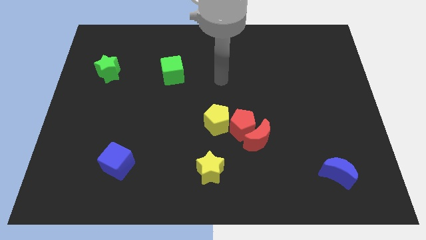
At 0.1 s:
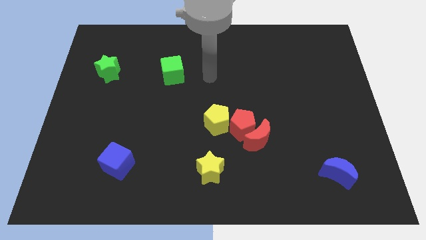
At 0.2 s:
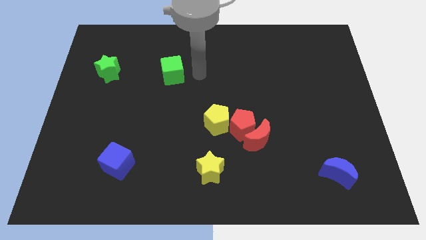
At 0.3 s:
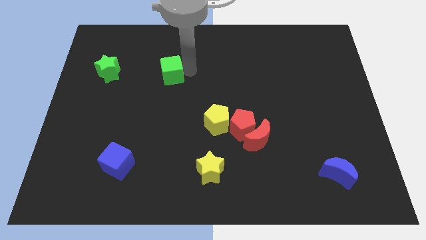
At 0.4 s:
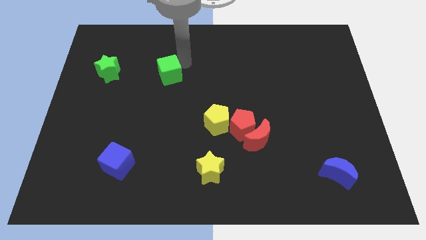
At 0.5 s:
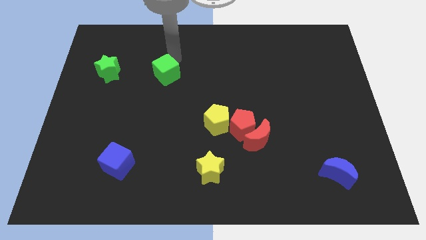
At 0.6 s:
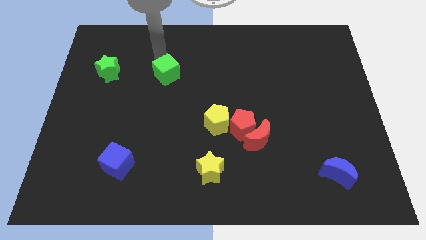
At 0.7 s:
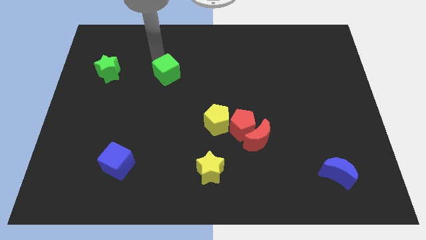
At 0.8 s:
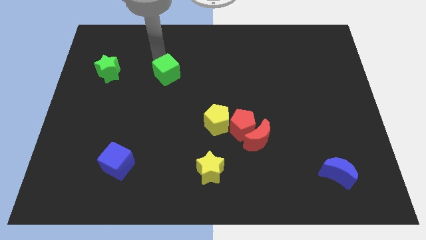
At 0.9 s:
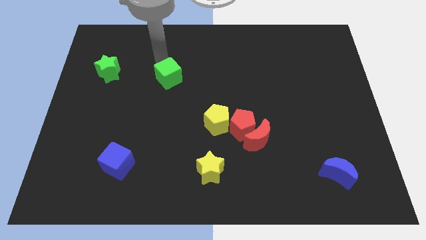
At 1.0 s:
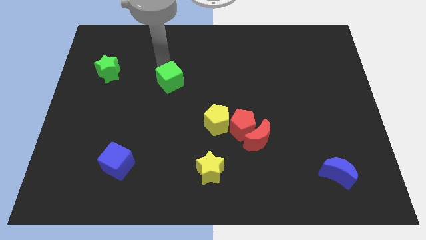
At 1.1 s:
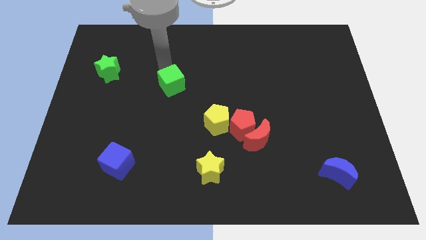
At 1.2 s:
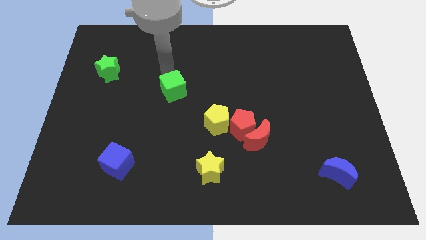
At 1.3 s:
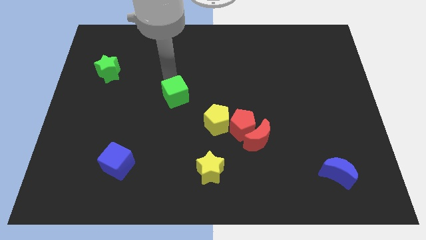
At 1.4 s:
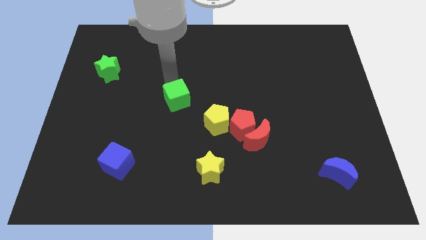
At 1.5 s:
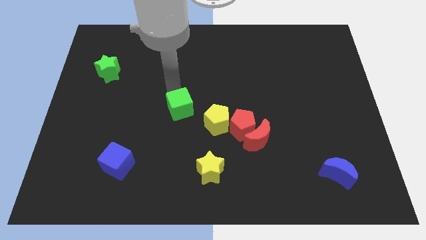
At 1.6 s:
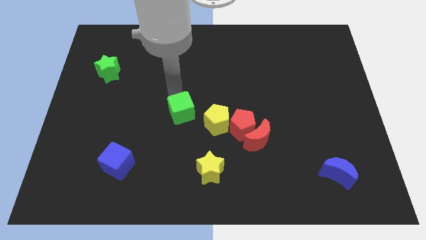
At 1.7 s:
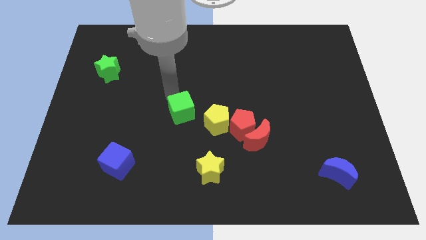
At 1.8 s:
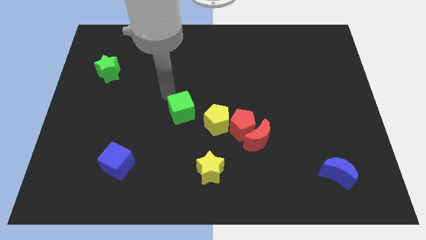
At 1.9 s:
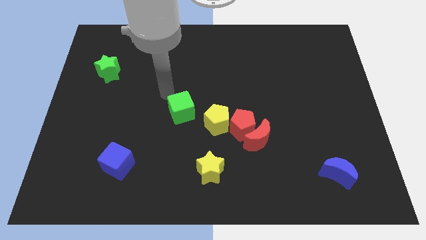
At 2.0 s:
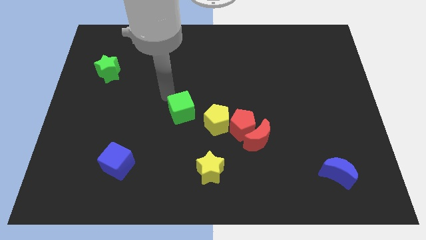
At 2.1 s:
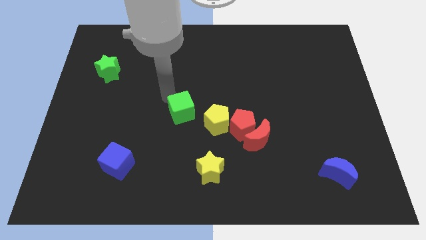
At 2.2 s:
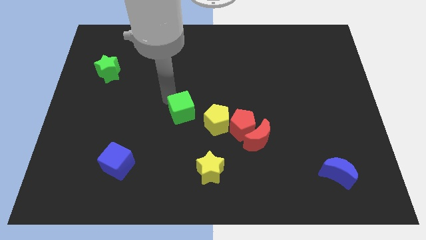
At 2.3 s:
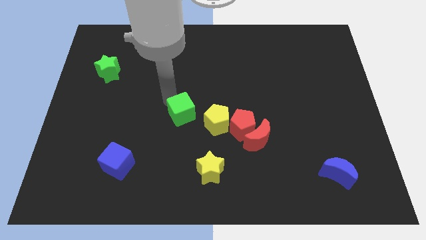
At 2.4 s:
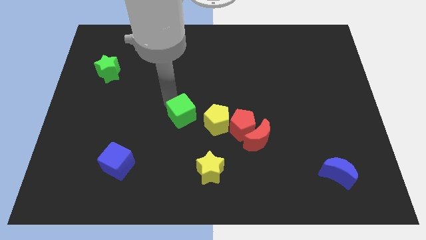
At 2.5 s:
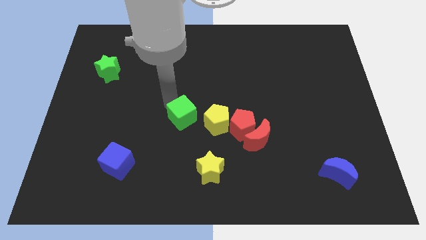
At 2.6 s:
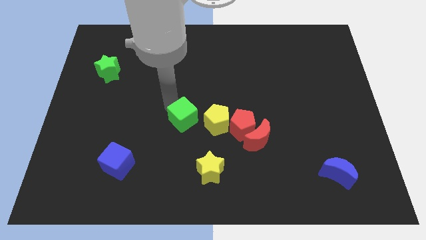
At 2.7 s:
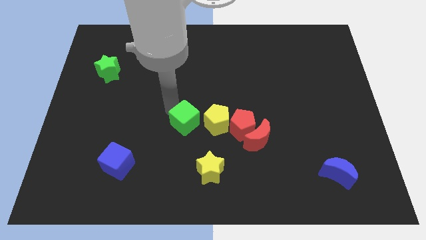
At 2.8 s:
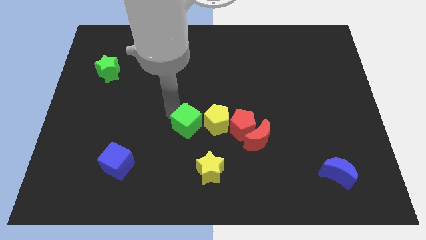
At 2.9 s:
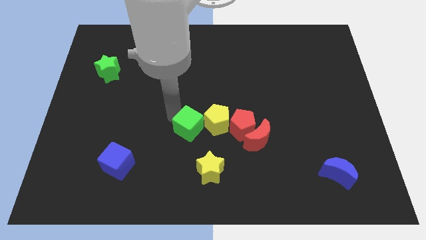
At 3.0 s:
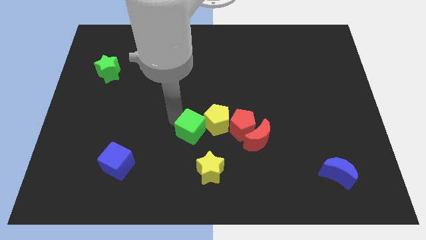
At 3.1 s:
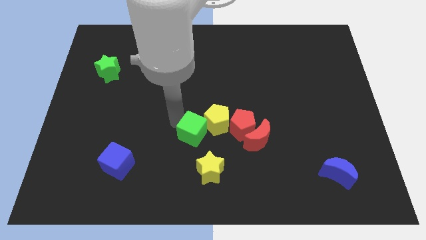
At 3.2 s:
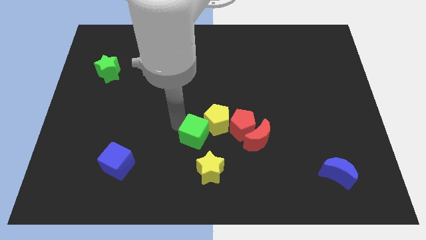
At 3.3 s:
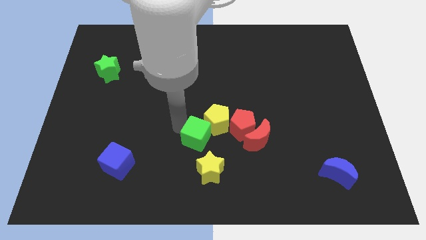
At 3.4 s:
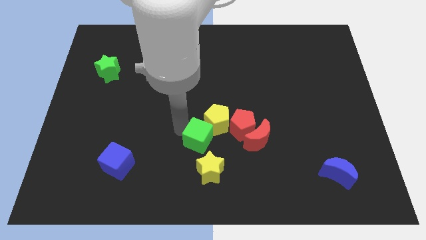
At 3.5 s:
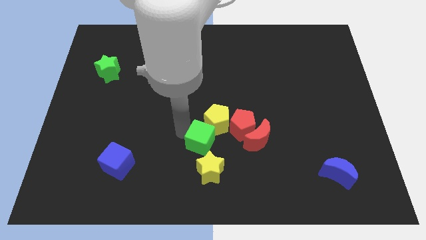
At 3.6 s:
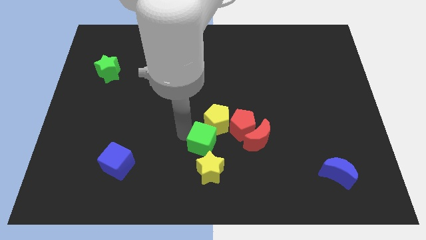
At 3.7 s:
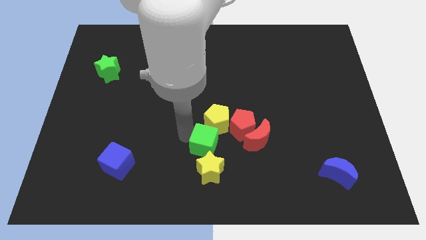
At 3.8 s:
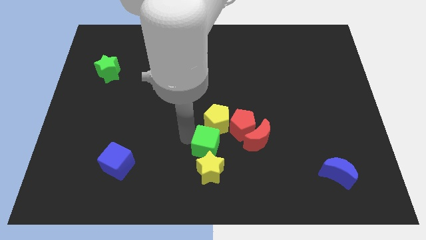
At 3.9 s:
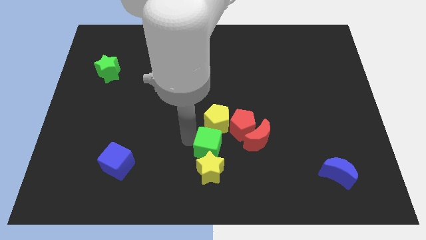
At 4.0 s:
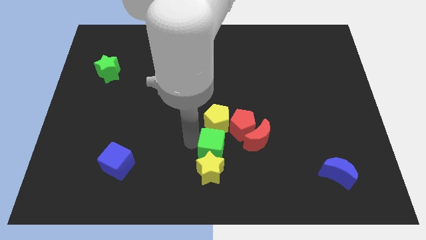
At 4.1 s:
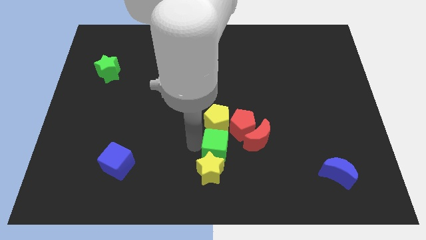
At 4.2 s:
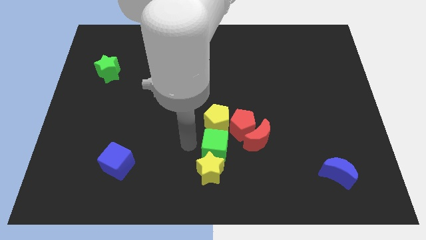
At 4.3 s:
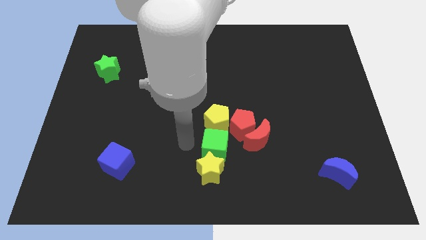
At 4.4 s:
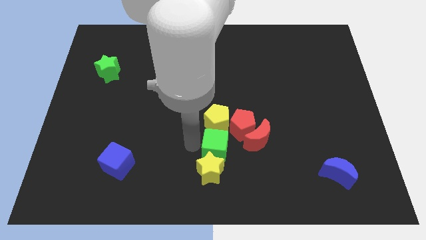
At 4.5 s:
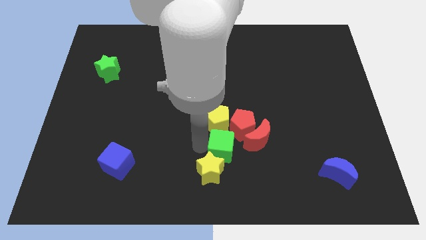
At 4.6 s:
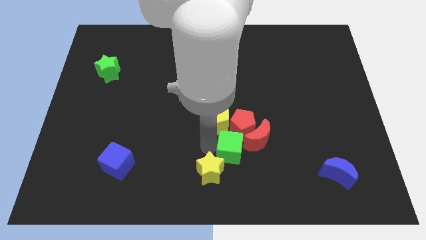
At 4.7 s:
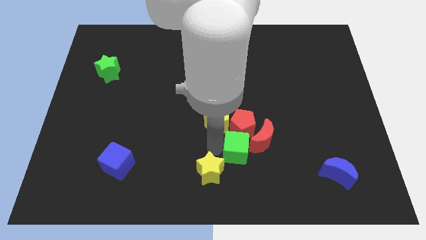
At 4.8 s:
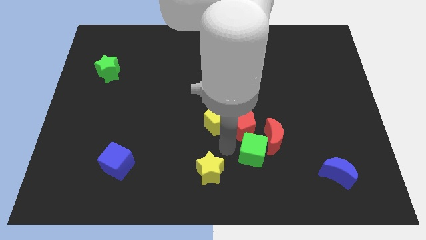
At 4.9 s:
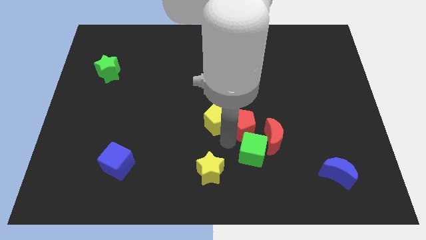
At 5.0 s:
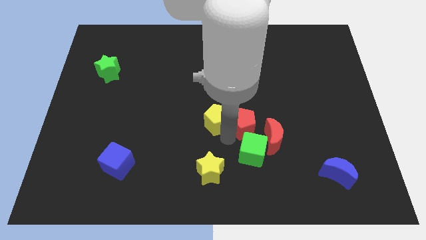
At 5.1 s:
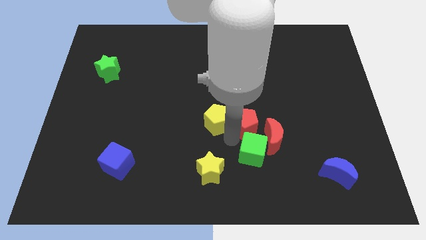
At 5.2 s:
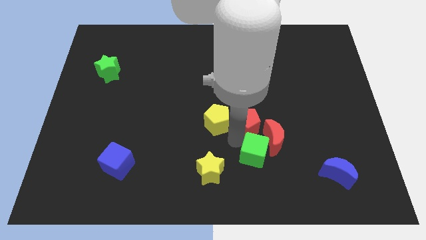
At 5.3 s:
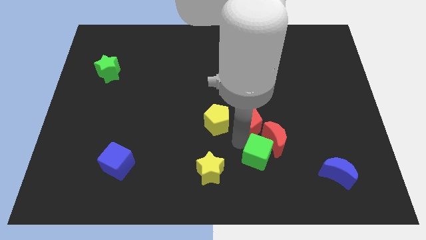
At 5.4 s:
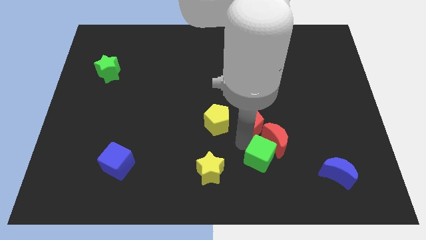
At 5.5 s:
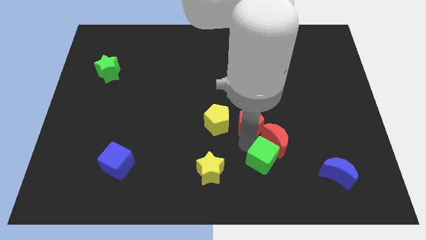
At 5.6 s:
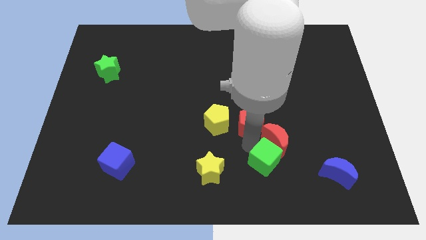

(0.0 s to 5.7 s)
put the green cube to the left side of the blue moon
